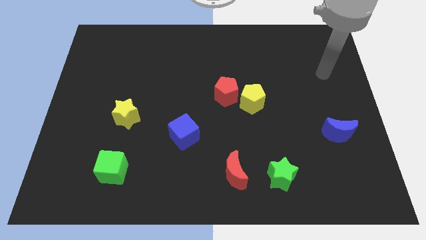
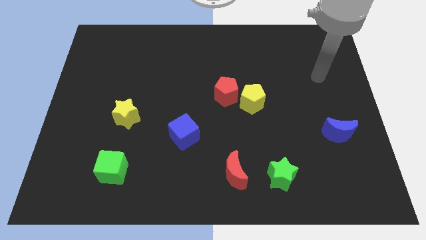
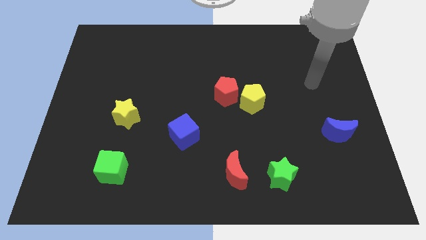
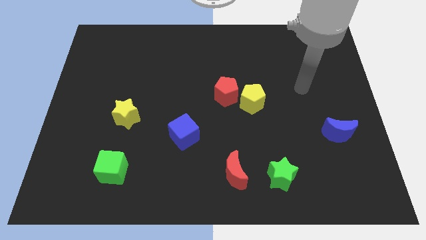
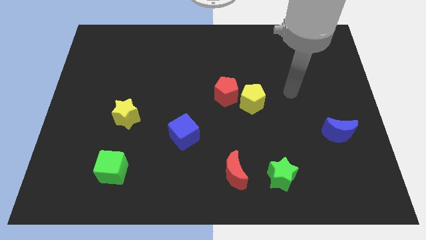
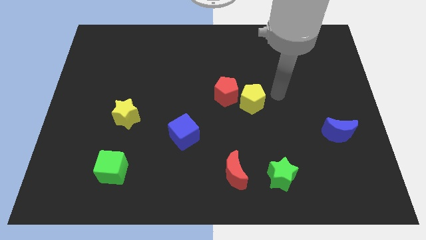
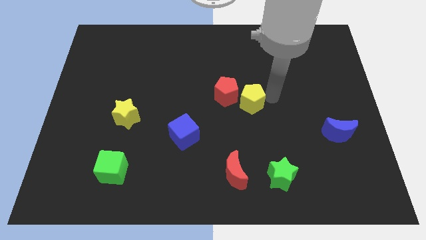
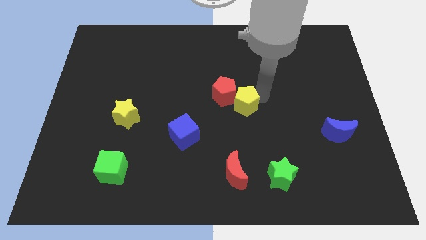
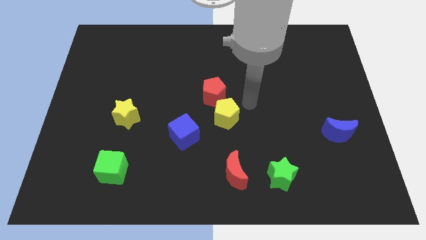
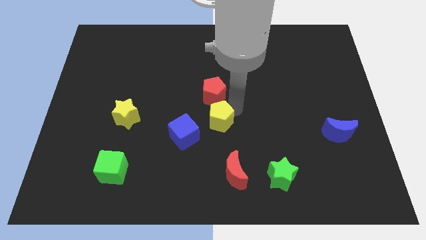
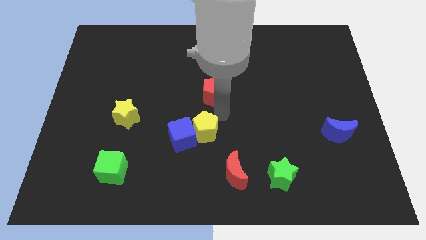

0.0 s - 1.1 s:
move the red pentagon away from the yellow pentagon

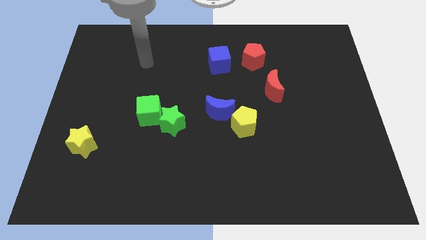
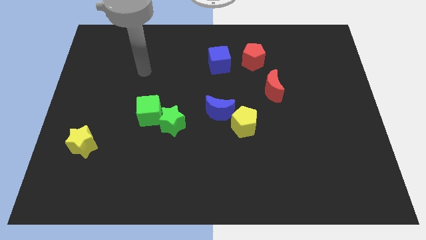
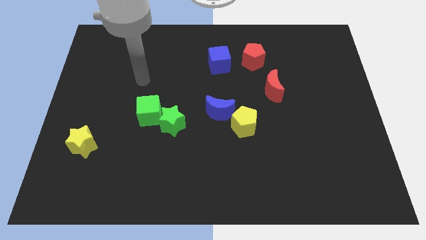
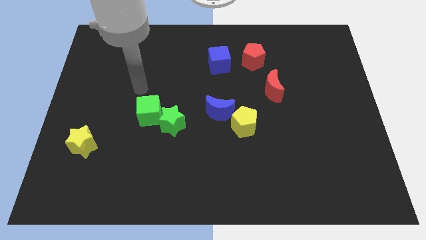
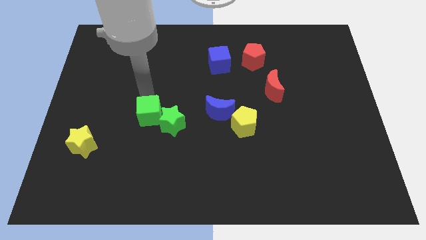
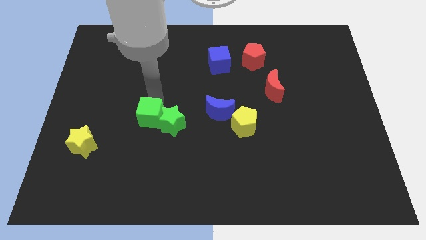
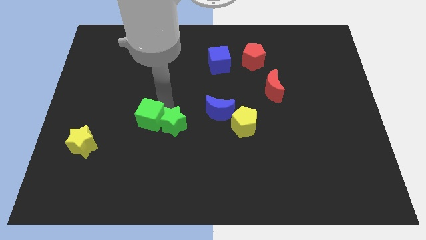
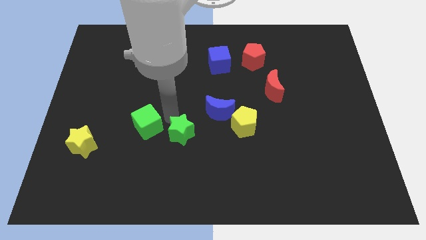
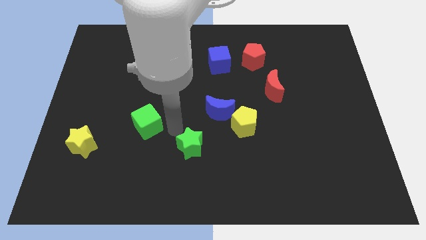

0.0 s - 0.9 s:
pull the green cube apart from the green star

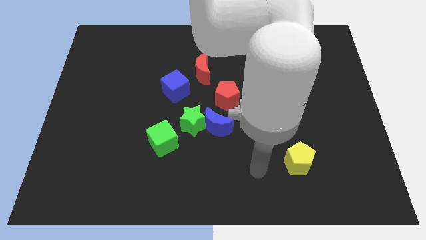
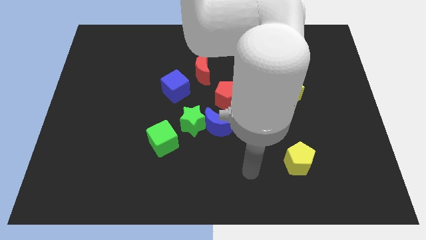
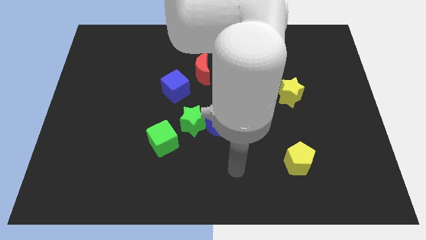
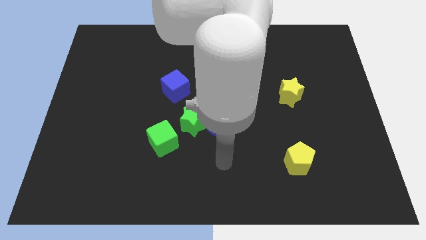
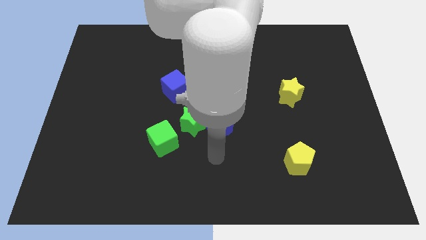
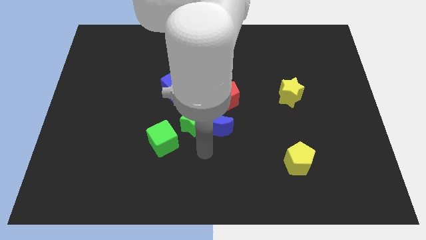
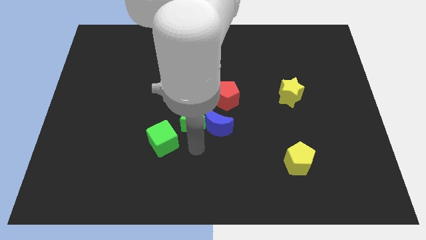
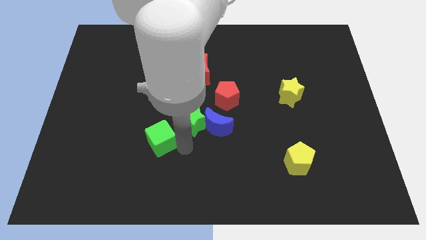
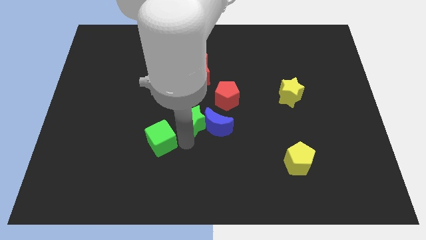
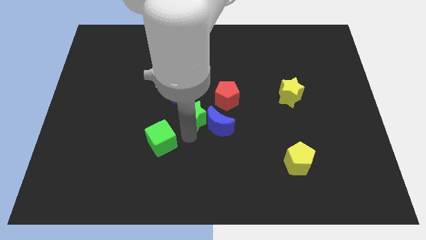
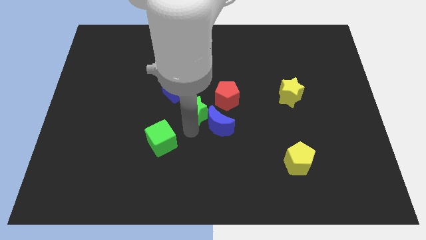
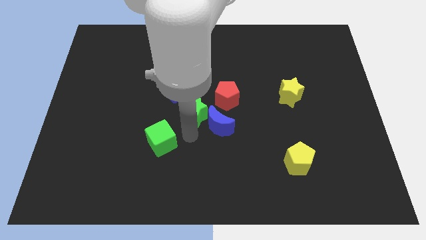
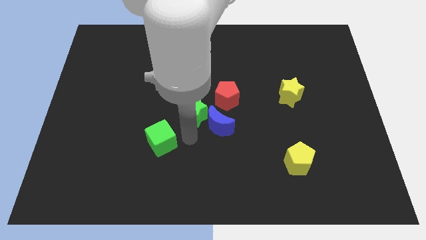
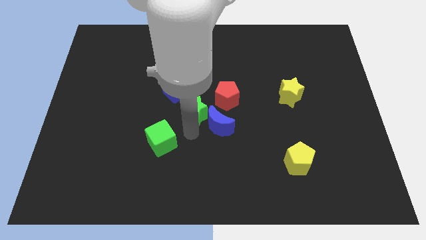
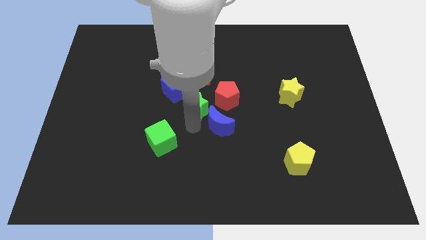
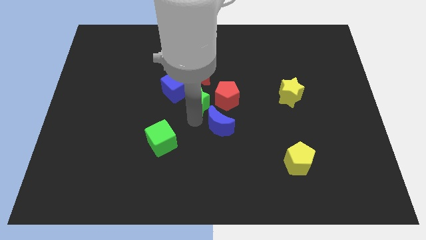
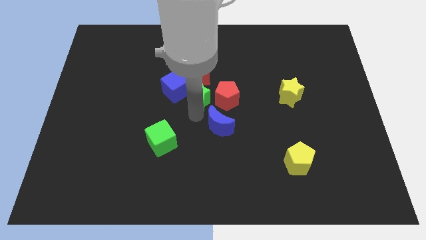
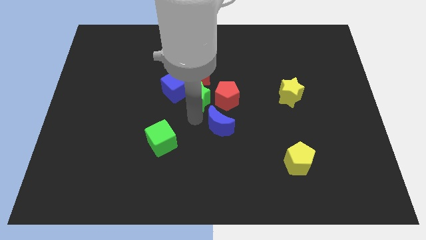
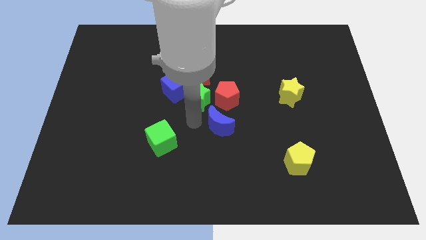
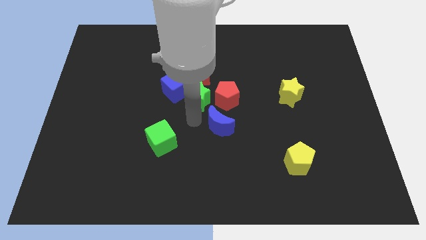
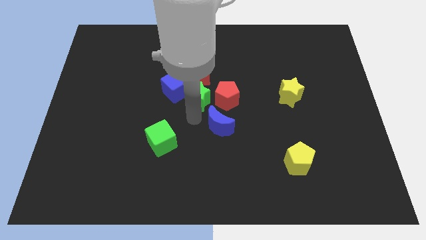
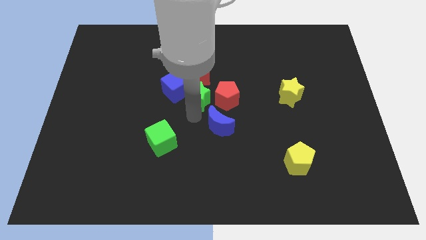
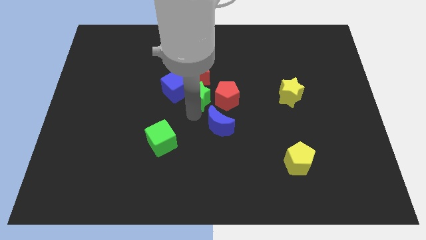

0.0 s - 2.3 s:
move the green star away from the blue moon and green cube

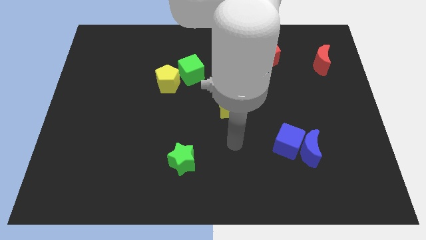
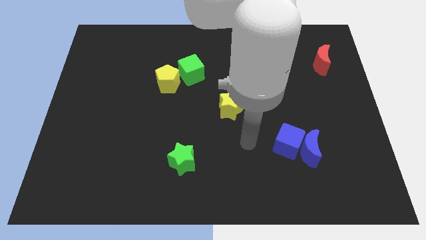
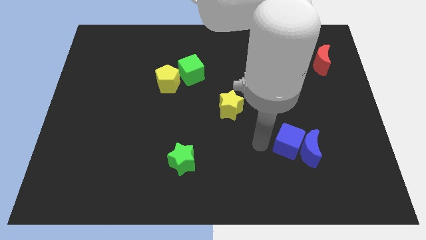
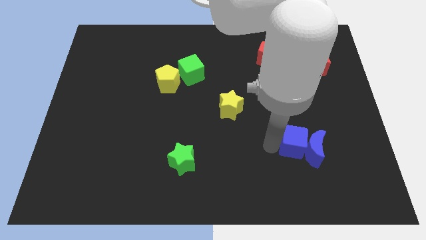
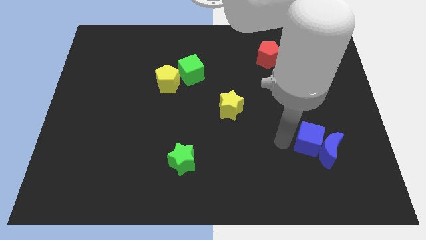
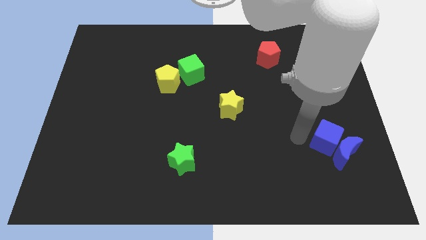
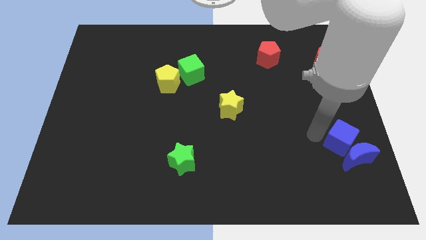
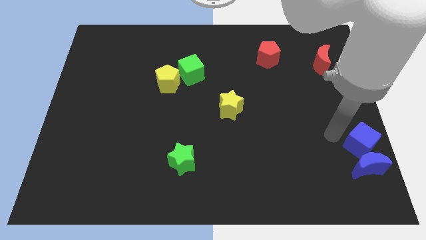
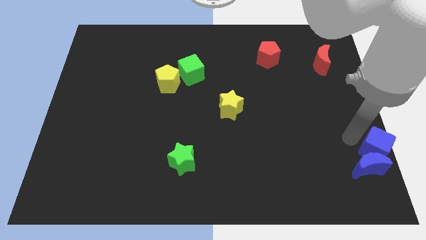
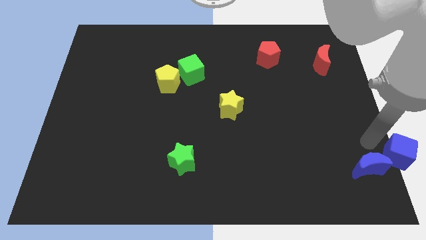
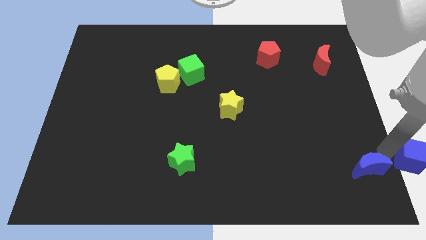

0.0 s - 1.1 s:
move the blue moon away from the blue cube

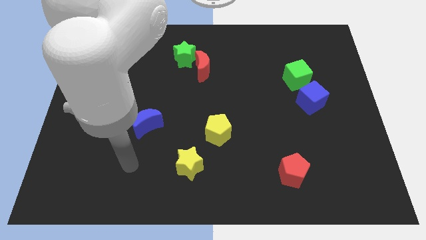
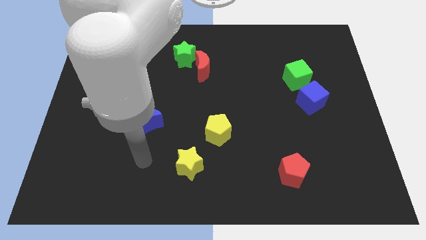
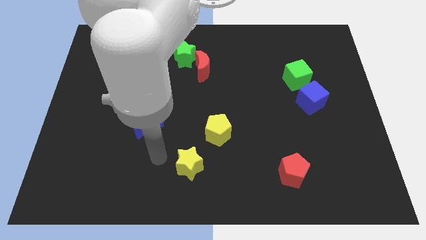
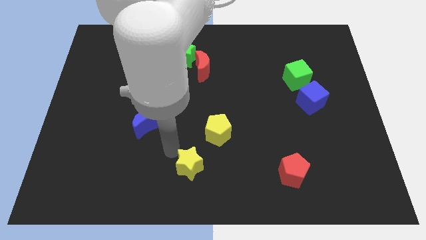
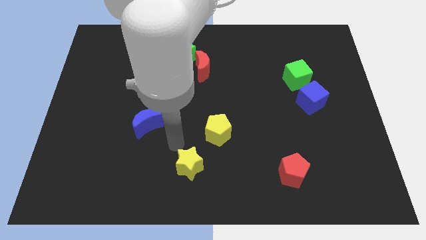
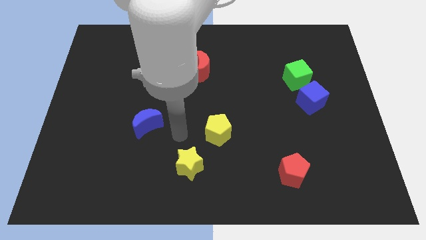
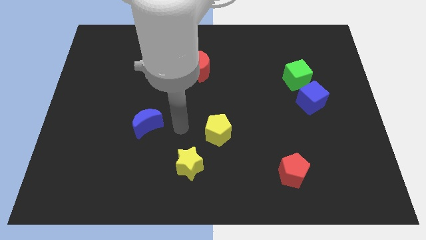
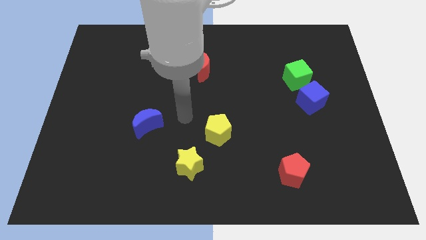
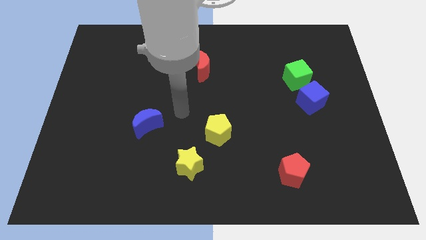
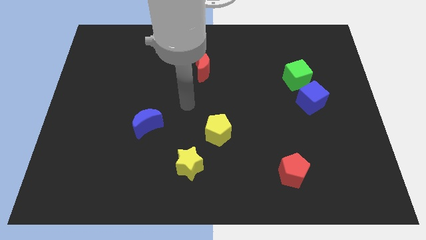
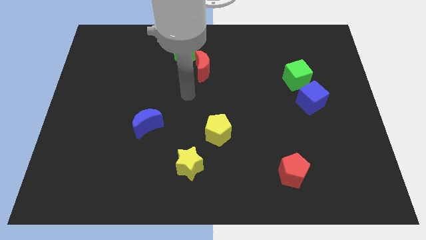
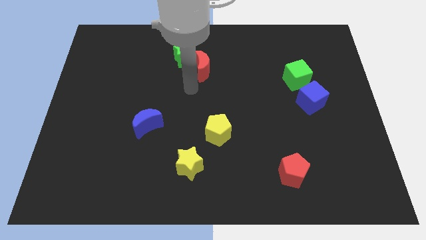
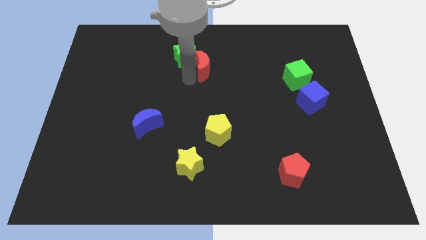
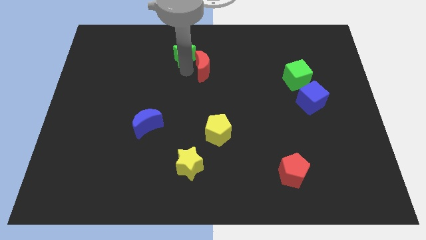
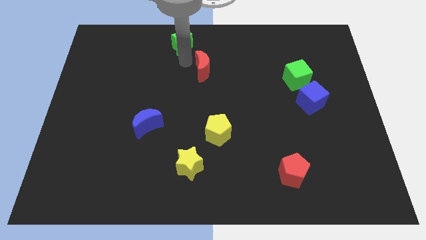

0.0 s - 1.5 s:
pull the red moon apart from the green star

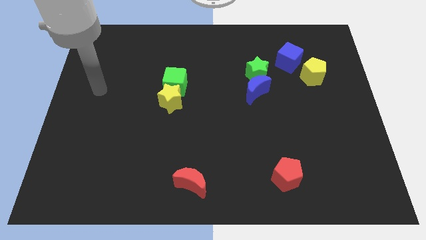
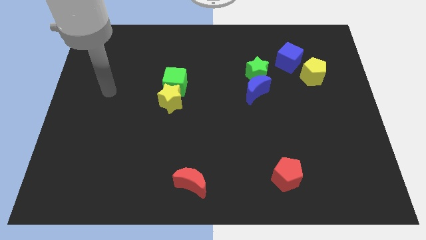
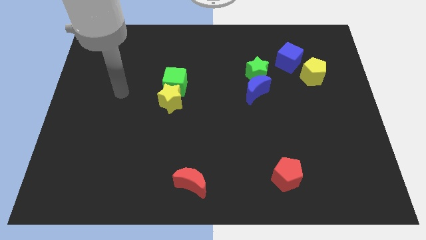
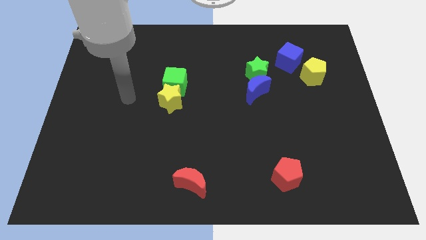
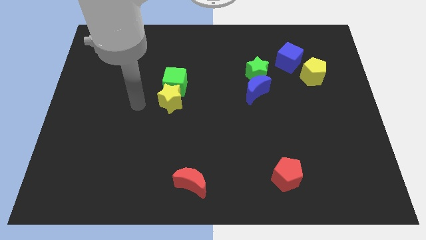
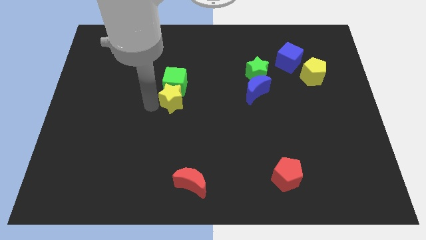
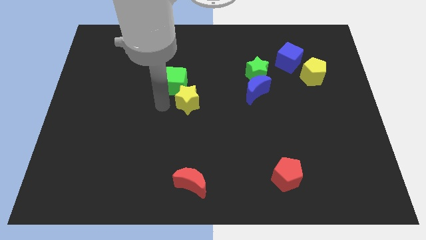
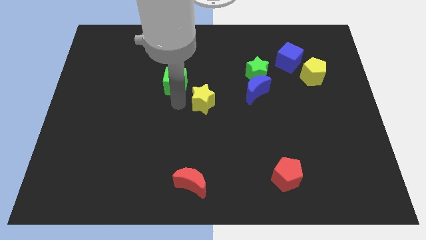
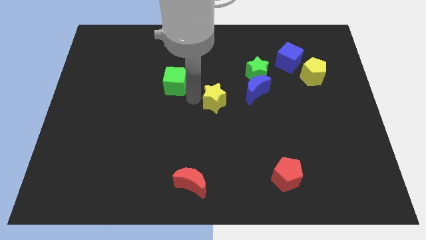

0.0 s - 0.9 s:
pull the green cube apart from the yellow star

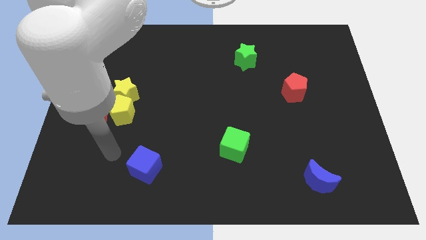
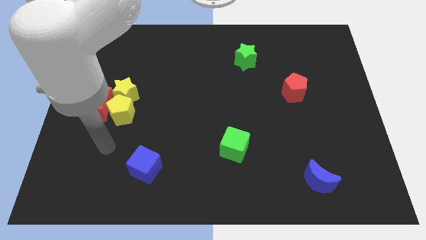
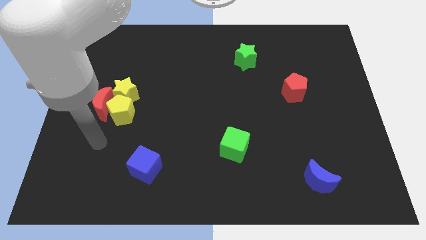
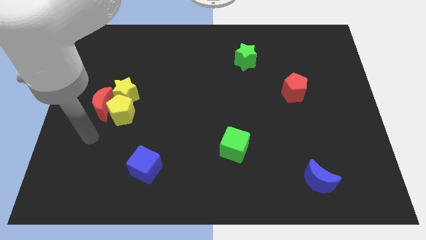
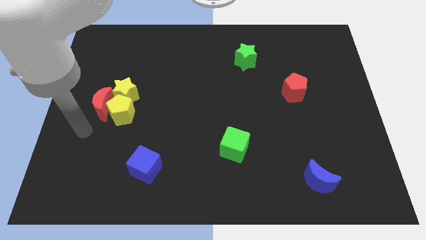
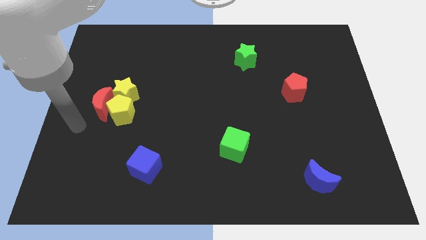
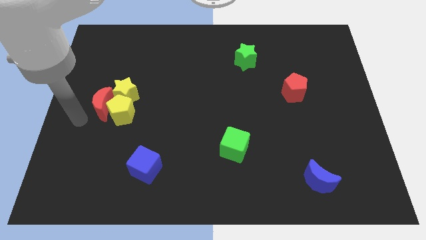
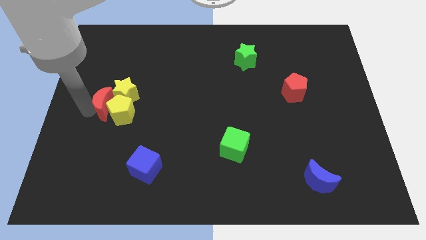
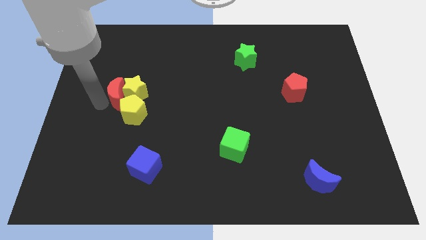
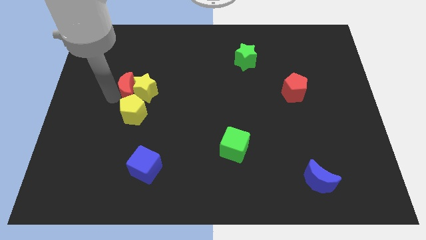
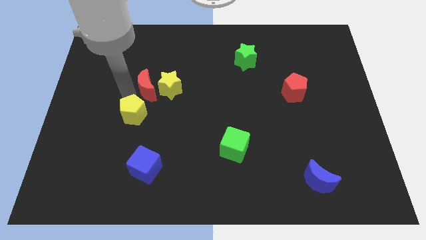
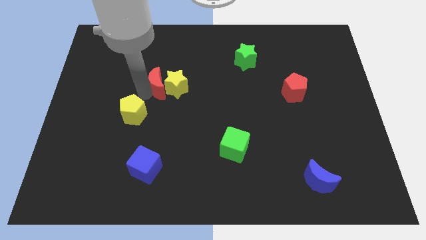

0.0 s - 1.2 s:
move the yellow pentagon away from the red moon and yellow star

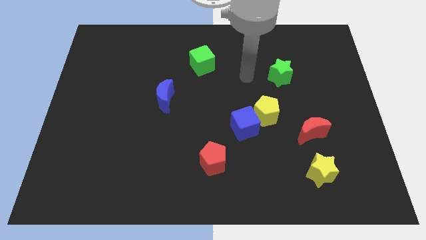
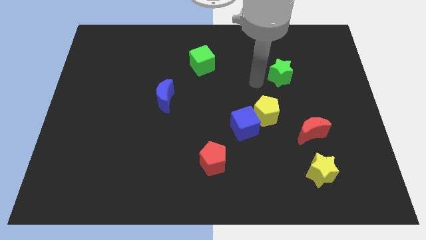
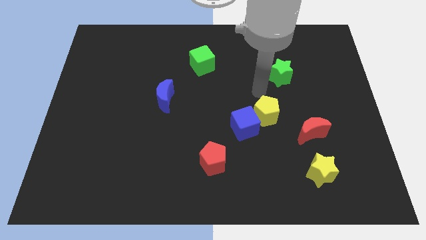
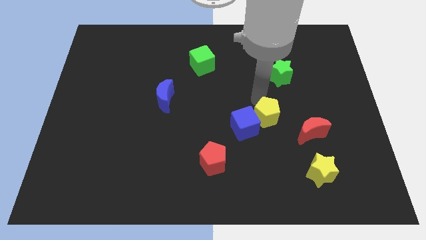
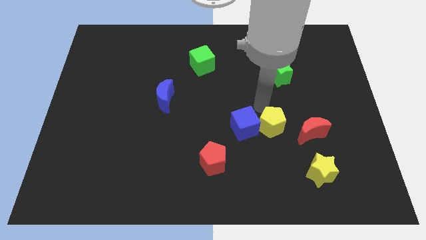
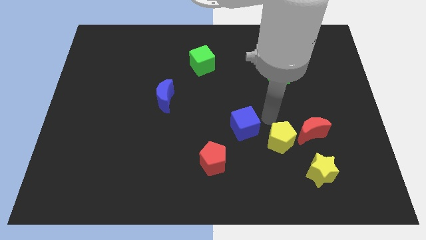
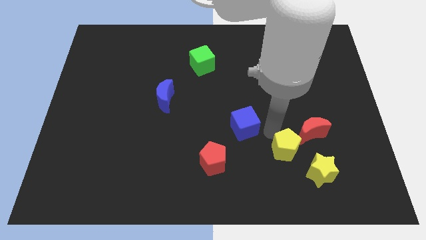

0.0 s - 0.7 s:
pull the blue cube apart from the yellow pentagon
